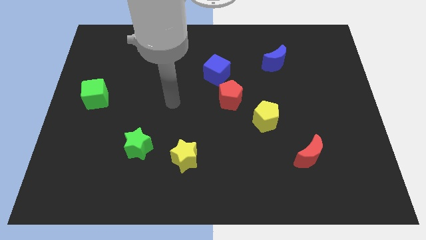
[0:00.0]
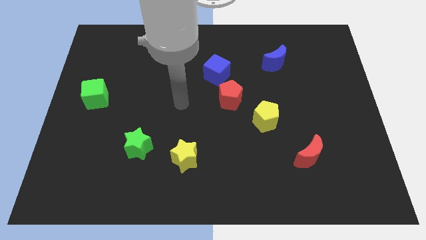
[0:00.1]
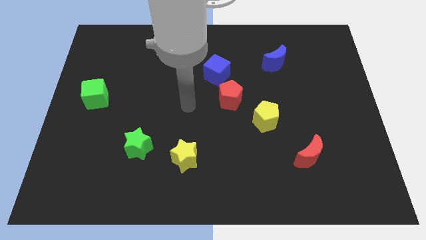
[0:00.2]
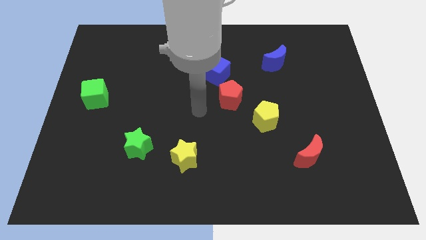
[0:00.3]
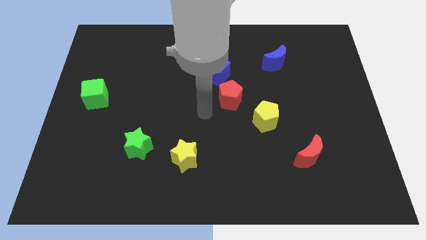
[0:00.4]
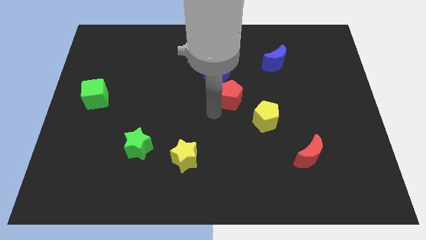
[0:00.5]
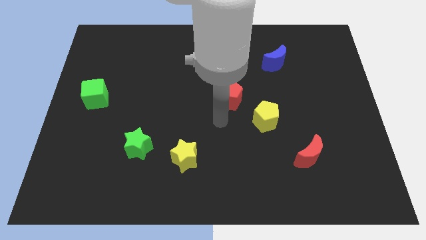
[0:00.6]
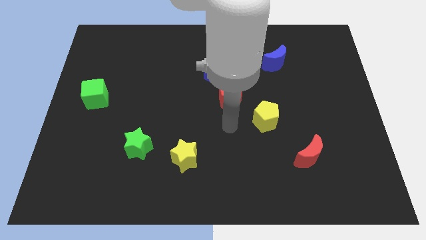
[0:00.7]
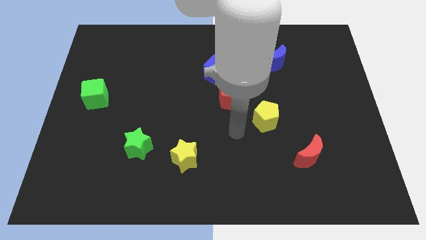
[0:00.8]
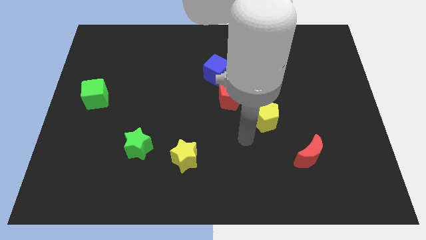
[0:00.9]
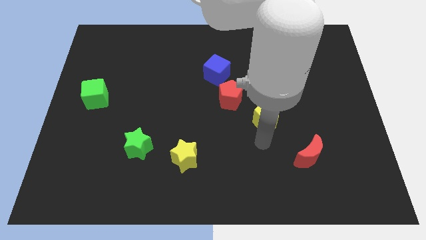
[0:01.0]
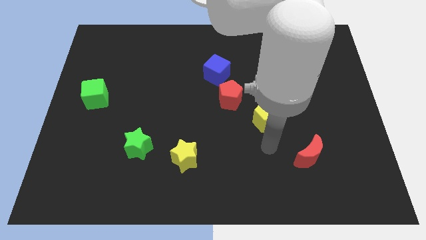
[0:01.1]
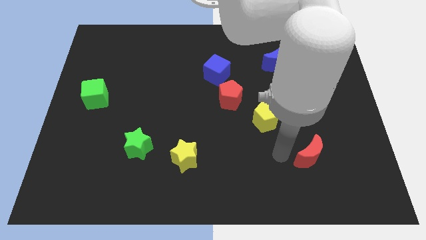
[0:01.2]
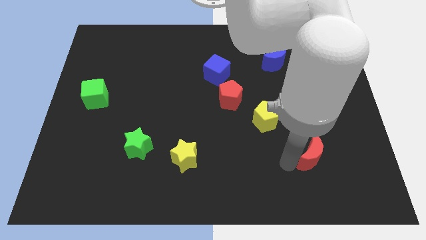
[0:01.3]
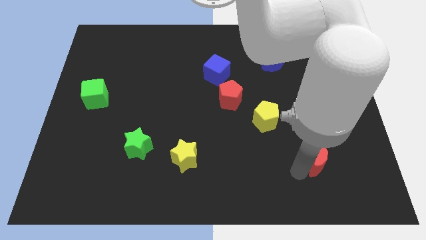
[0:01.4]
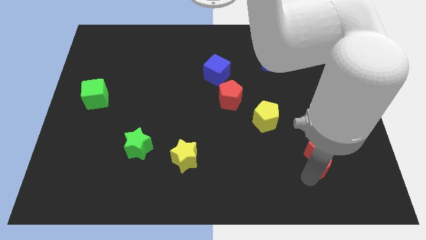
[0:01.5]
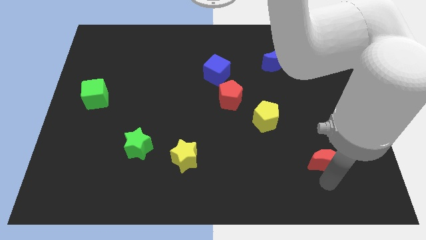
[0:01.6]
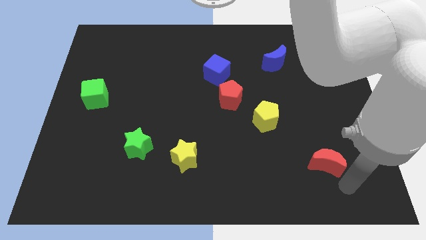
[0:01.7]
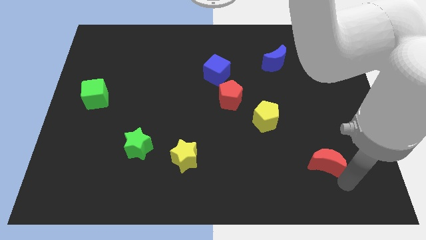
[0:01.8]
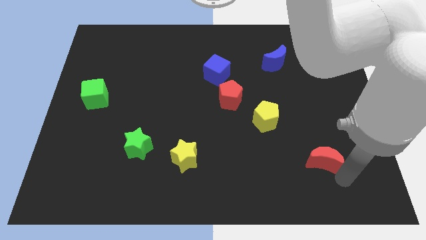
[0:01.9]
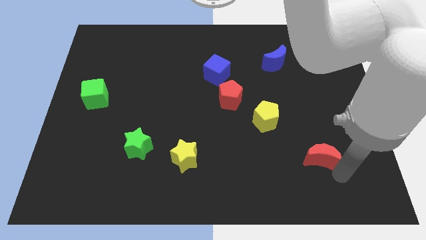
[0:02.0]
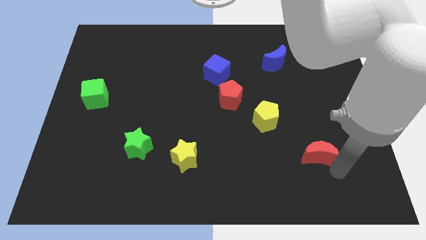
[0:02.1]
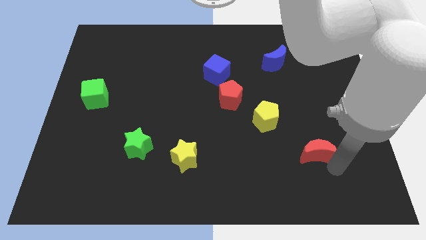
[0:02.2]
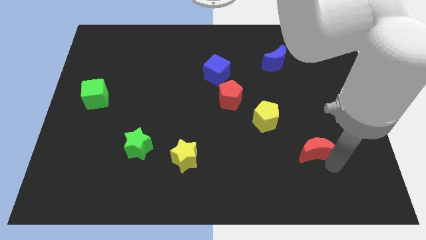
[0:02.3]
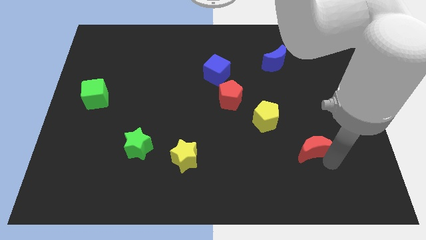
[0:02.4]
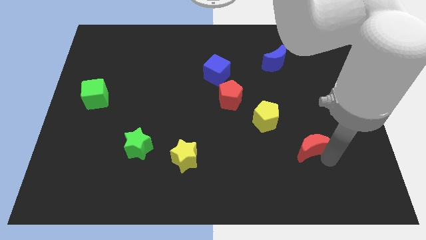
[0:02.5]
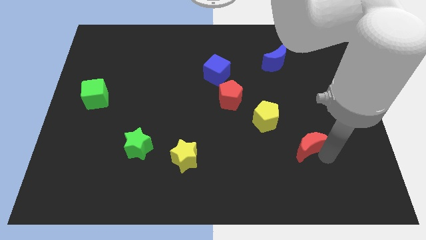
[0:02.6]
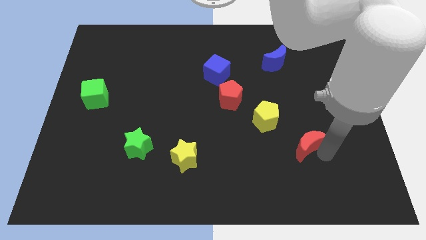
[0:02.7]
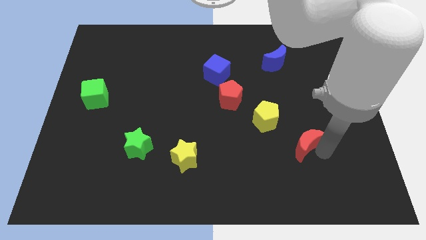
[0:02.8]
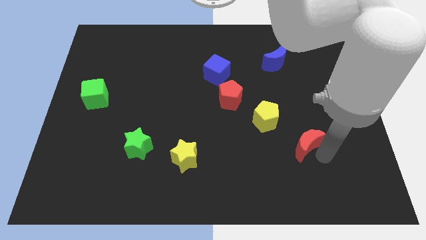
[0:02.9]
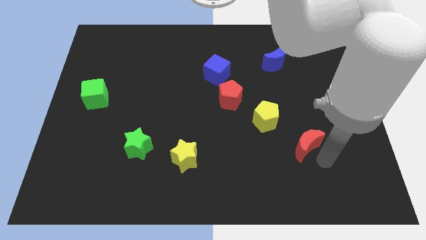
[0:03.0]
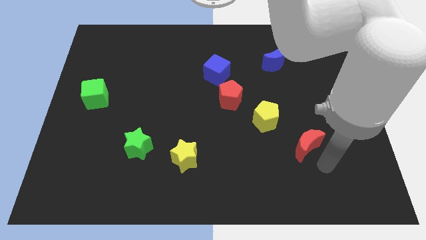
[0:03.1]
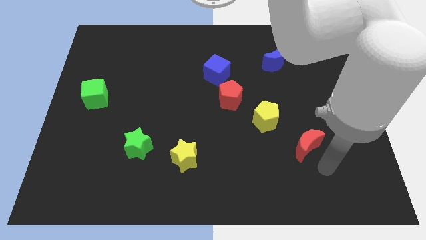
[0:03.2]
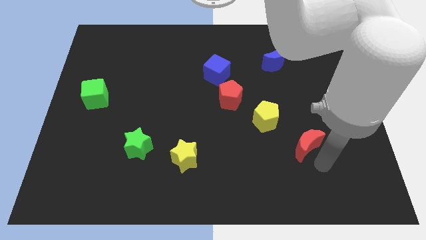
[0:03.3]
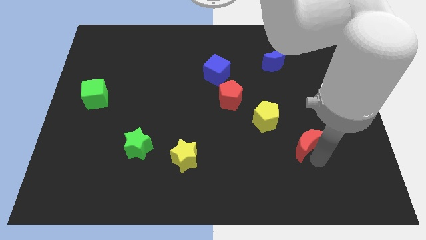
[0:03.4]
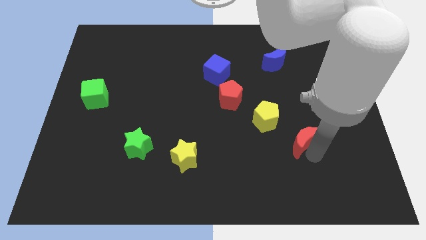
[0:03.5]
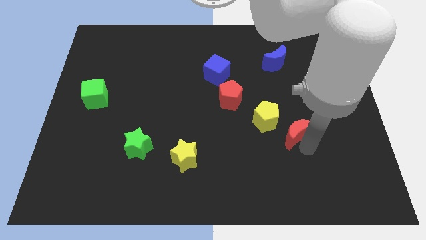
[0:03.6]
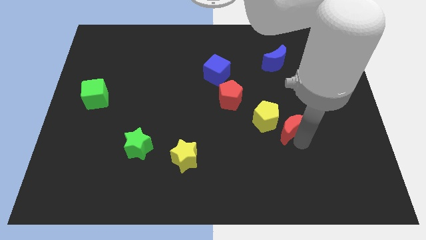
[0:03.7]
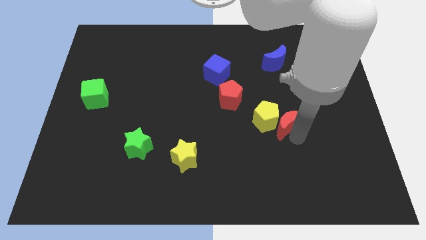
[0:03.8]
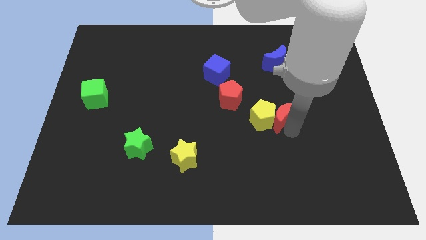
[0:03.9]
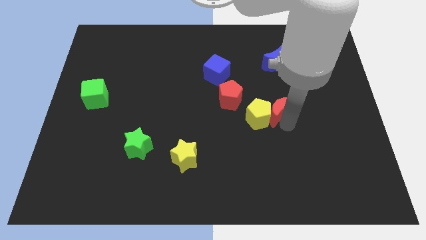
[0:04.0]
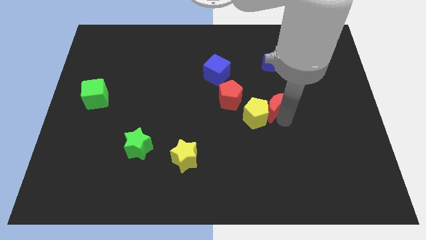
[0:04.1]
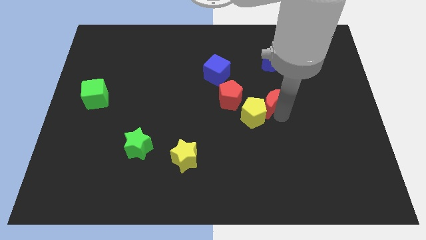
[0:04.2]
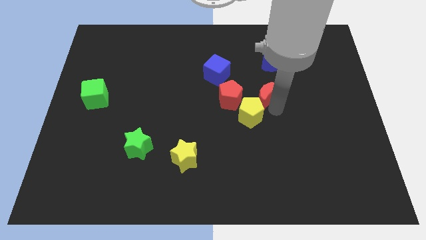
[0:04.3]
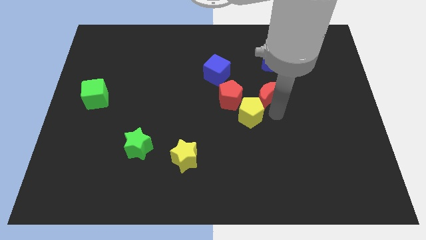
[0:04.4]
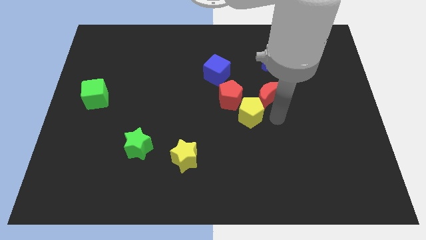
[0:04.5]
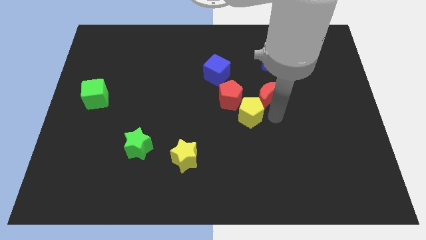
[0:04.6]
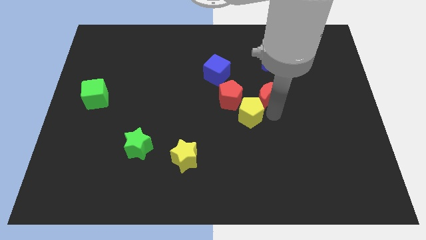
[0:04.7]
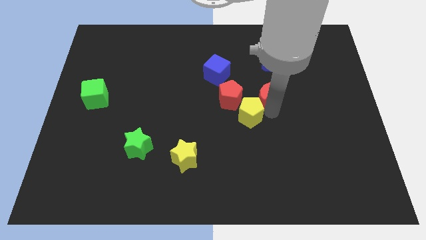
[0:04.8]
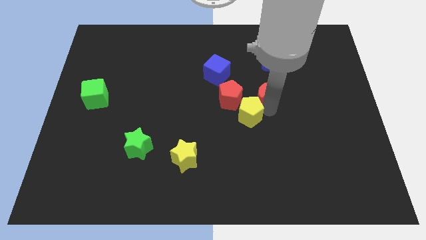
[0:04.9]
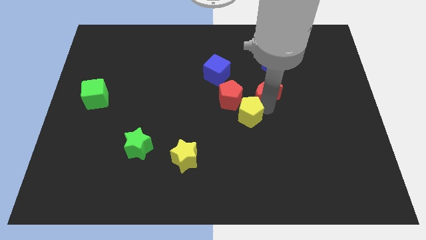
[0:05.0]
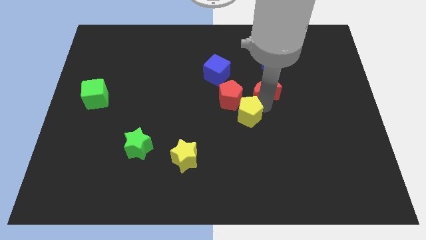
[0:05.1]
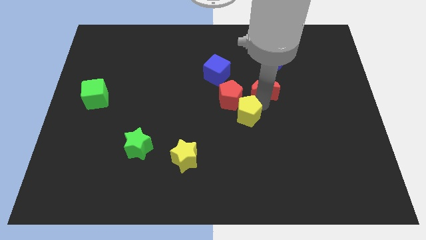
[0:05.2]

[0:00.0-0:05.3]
push the red moon diagonally down and to the left of the blue moon
